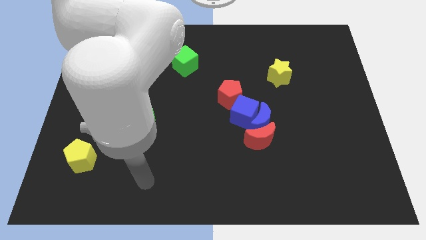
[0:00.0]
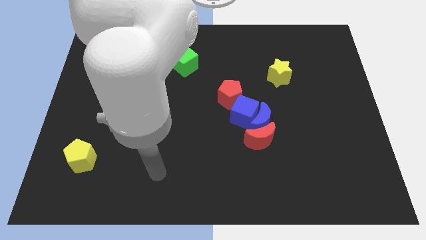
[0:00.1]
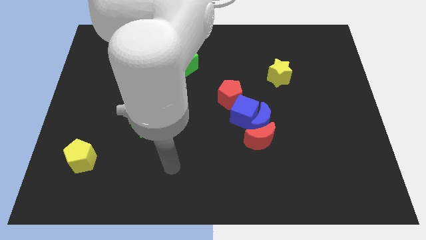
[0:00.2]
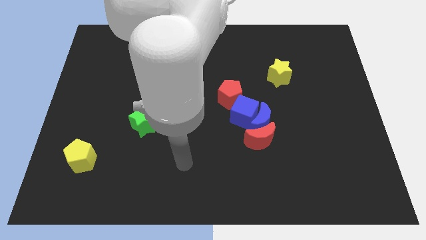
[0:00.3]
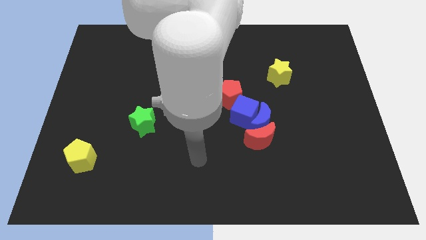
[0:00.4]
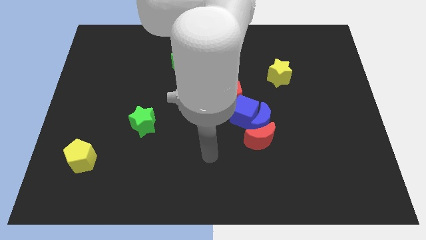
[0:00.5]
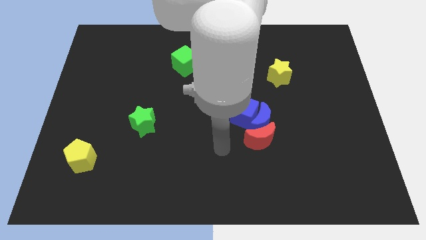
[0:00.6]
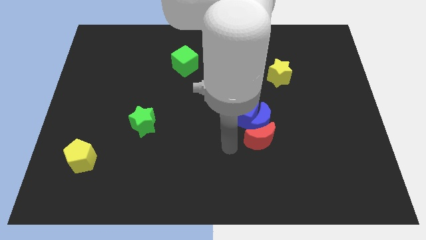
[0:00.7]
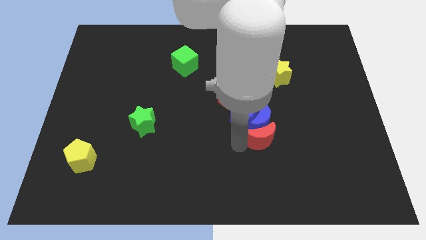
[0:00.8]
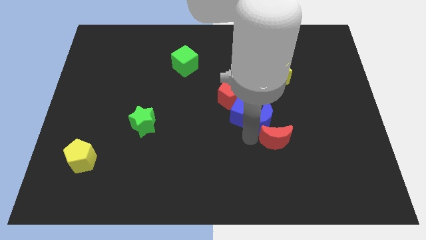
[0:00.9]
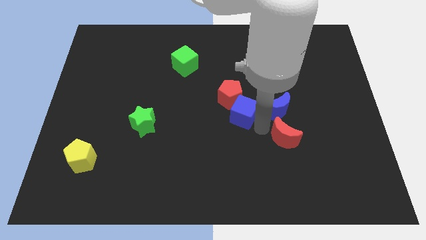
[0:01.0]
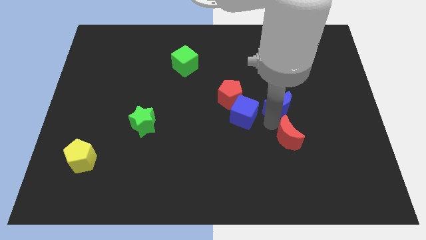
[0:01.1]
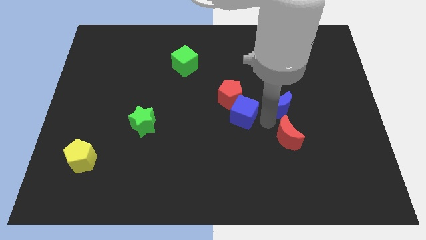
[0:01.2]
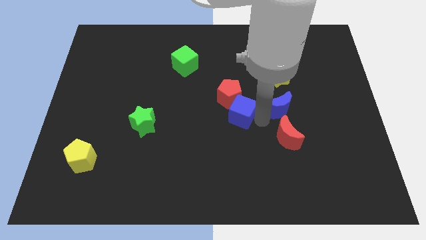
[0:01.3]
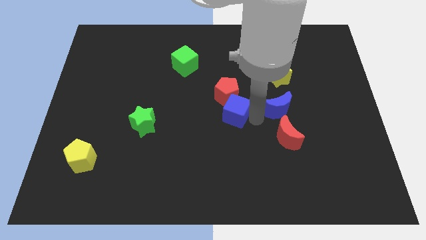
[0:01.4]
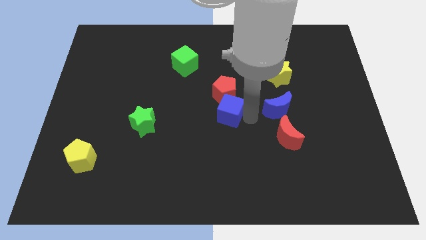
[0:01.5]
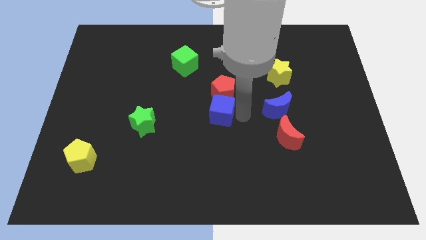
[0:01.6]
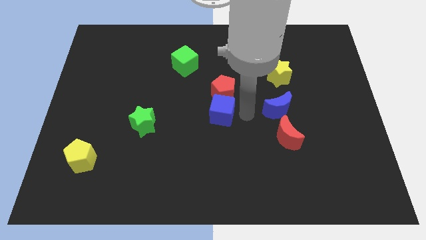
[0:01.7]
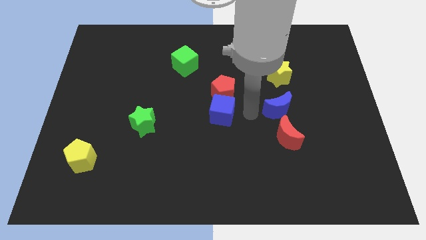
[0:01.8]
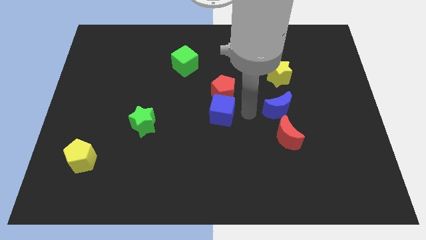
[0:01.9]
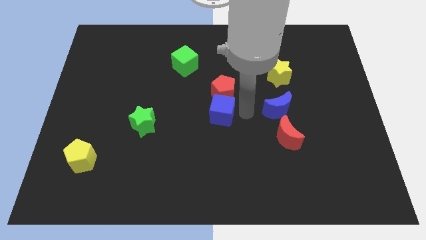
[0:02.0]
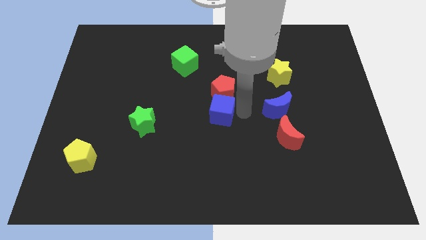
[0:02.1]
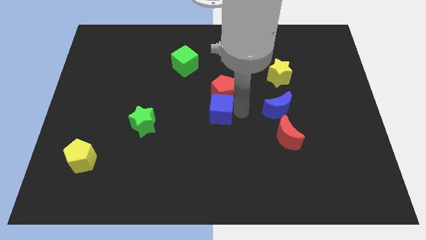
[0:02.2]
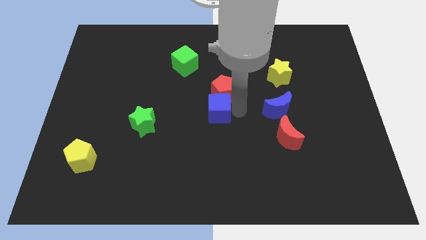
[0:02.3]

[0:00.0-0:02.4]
move the blue cube away from the blue moon, red pentagon, and red moon

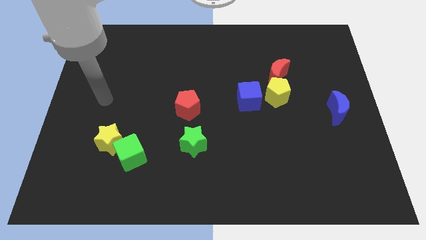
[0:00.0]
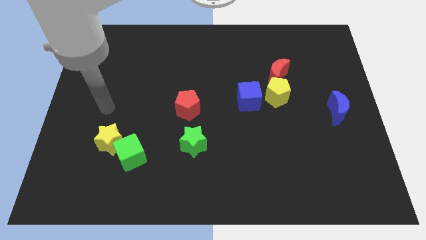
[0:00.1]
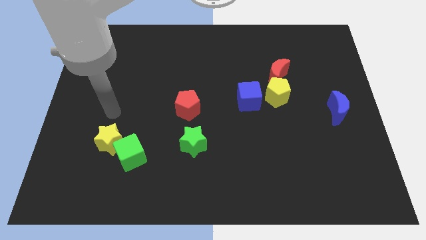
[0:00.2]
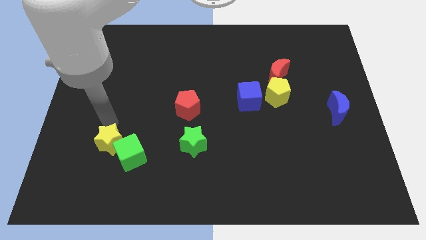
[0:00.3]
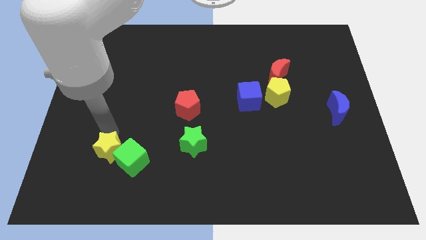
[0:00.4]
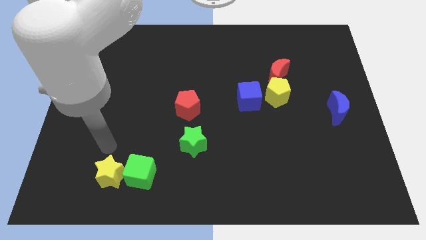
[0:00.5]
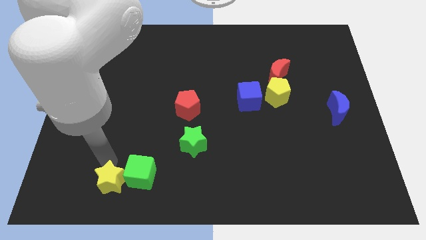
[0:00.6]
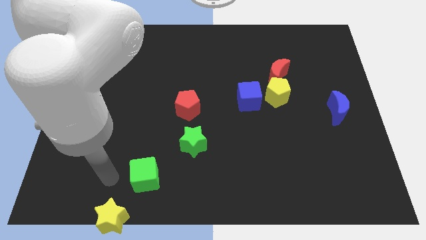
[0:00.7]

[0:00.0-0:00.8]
move the green cube away from the yellow star

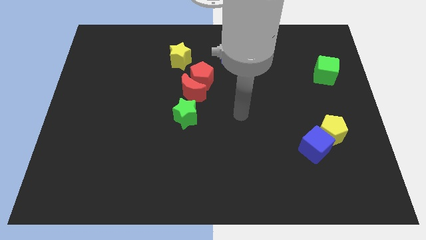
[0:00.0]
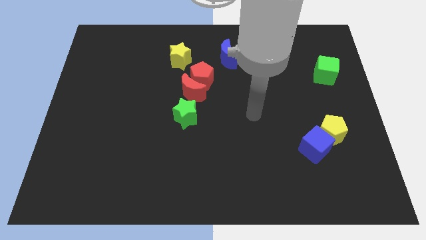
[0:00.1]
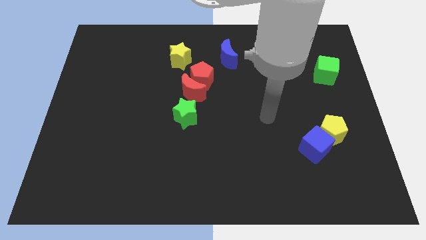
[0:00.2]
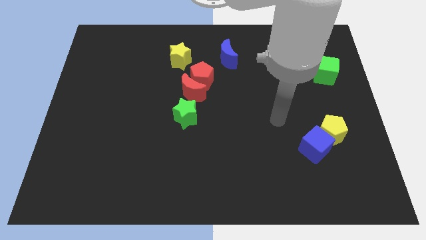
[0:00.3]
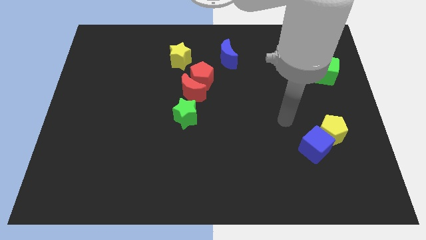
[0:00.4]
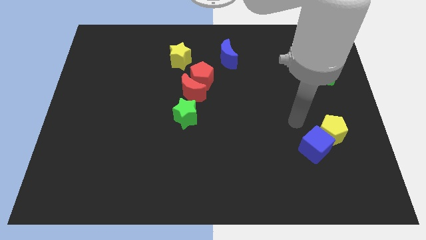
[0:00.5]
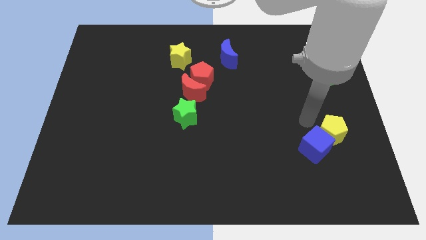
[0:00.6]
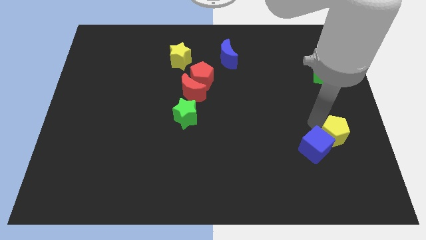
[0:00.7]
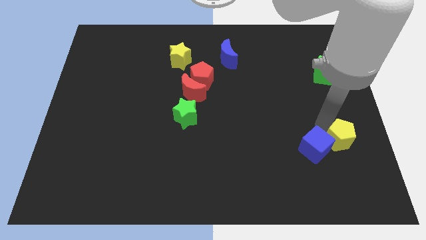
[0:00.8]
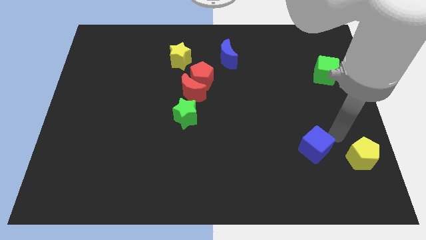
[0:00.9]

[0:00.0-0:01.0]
pull the blue cube apart from the yellow pentagon

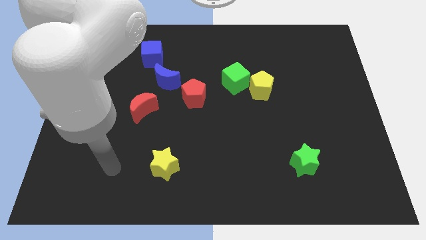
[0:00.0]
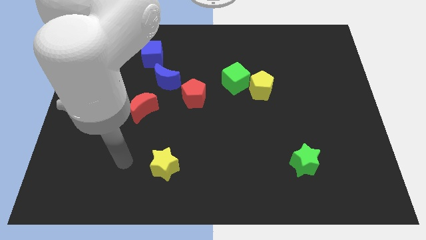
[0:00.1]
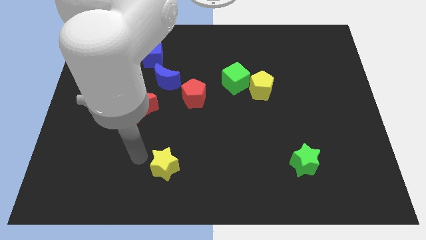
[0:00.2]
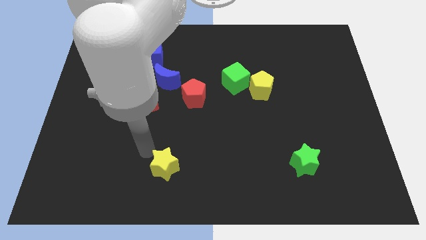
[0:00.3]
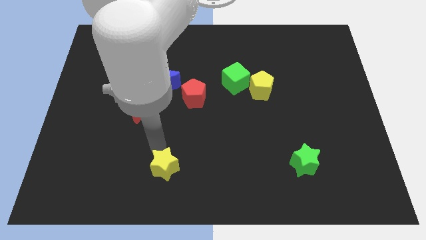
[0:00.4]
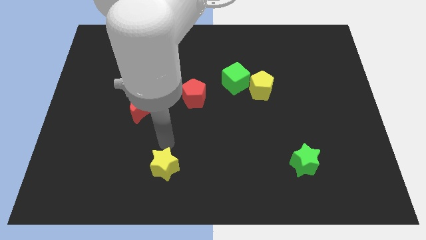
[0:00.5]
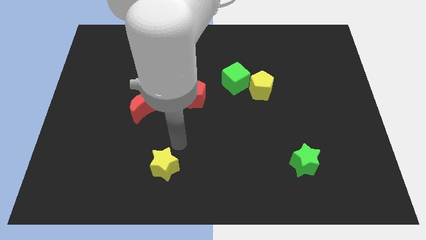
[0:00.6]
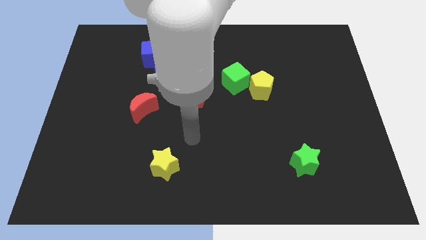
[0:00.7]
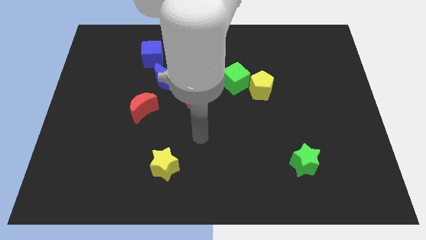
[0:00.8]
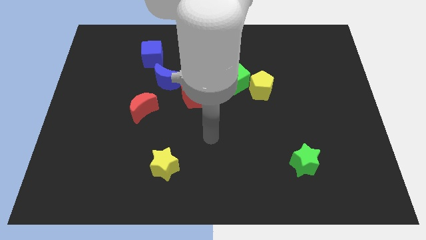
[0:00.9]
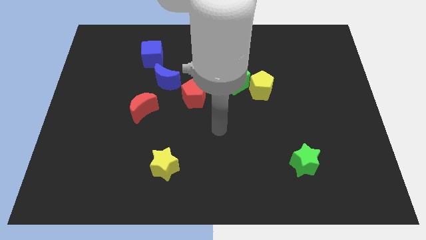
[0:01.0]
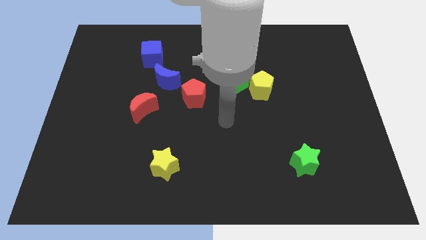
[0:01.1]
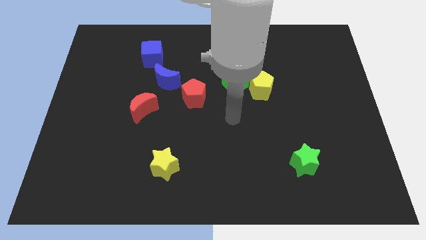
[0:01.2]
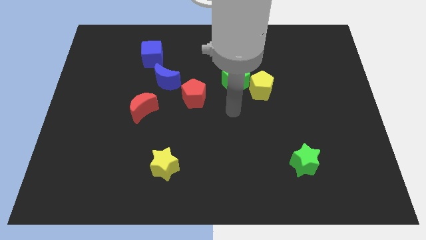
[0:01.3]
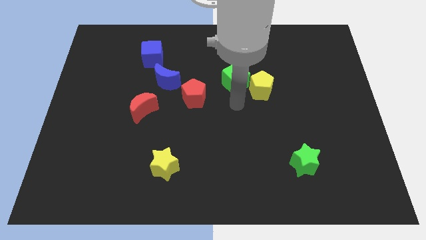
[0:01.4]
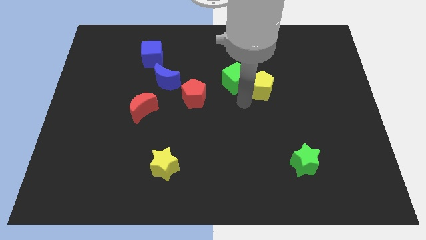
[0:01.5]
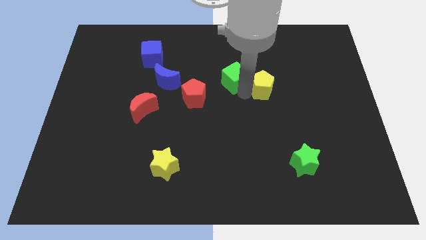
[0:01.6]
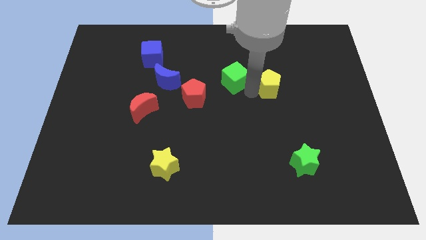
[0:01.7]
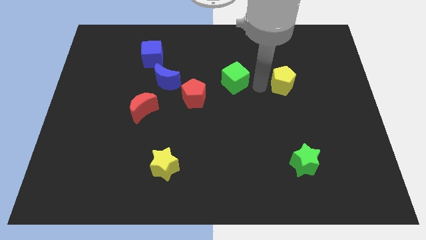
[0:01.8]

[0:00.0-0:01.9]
move the green cube away from the yellow pentagon

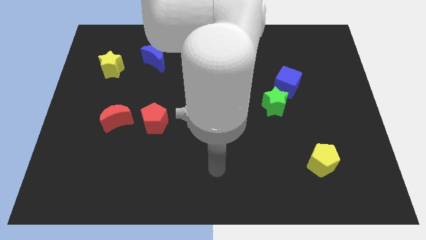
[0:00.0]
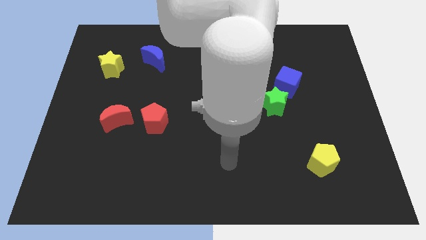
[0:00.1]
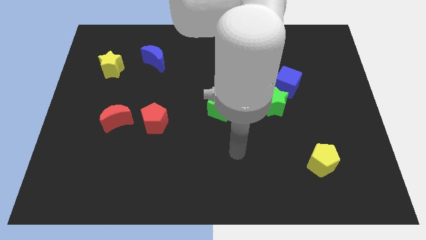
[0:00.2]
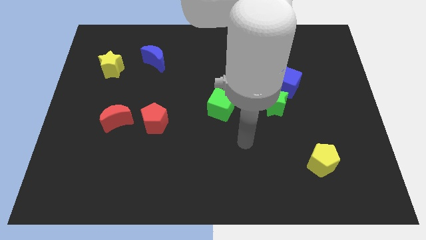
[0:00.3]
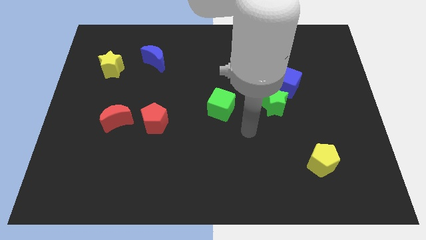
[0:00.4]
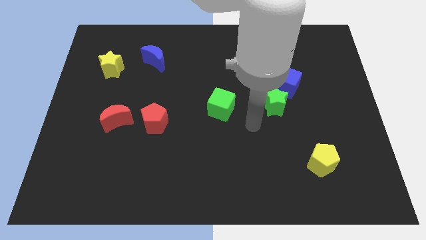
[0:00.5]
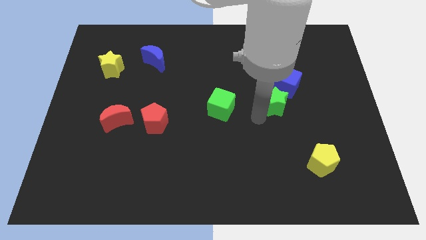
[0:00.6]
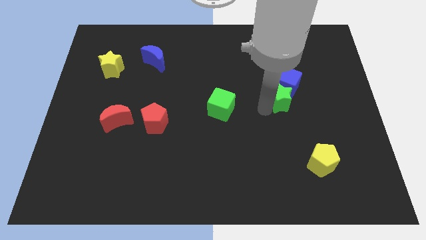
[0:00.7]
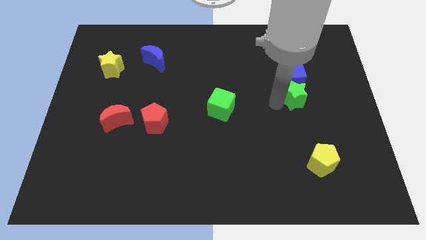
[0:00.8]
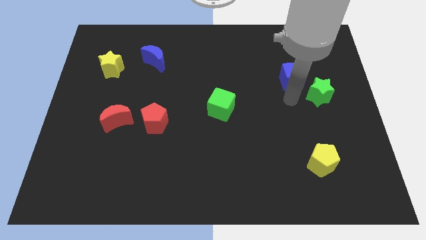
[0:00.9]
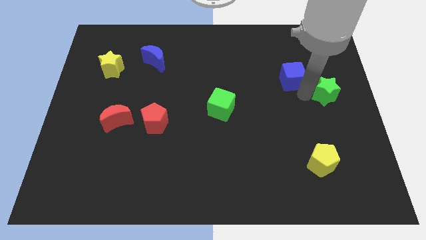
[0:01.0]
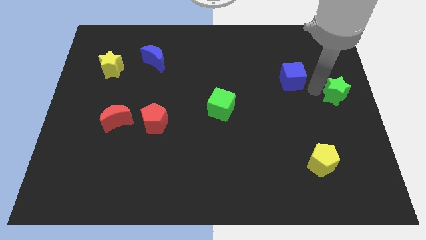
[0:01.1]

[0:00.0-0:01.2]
move the blue cube away from the green star

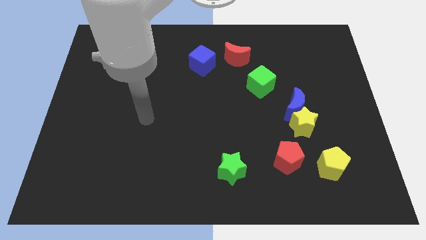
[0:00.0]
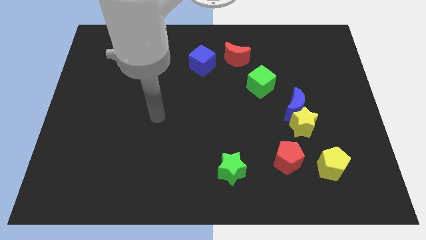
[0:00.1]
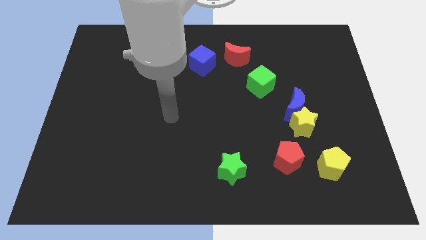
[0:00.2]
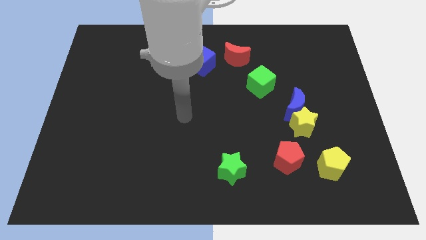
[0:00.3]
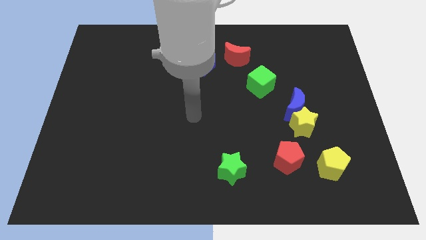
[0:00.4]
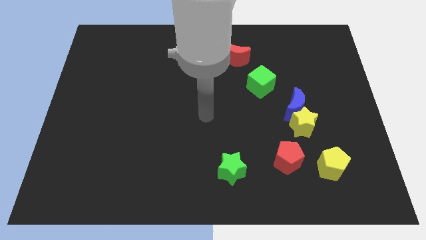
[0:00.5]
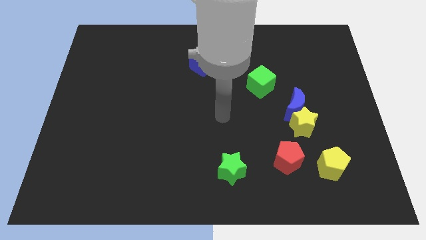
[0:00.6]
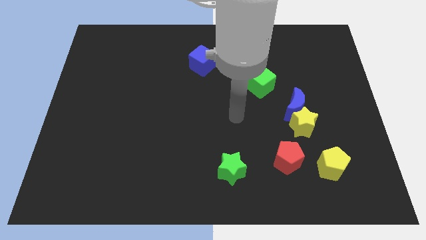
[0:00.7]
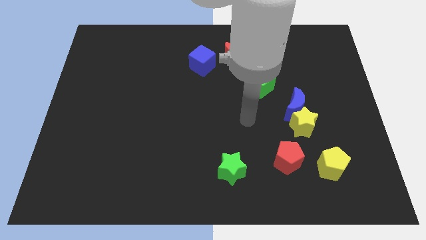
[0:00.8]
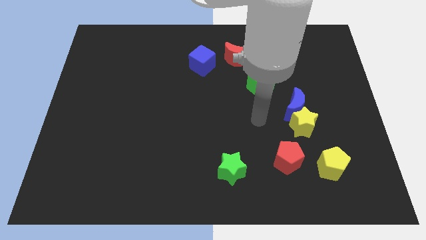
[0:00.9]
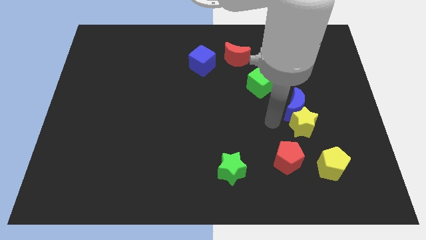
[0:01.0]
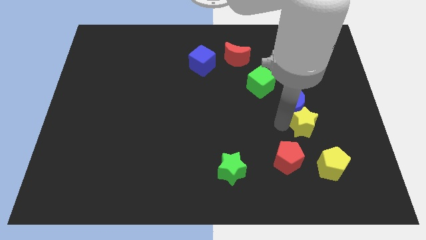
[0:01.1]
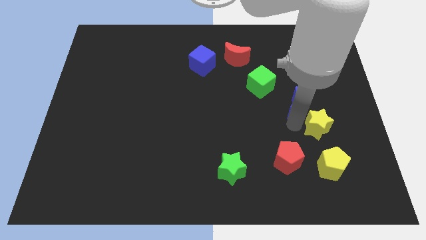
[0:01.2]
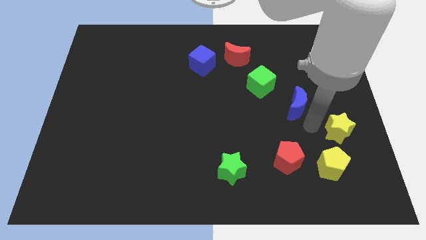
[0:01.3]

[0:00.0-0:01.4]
separate the blue moon from the yellow star

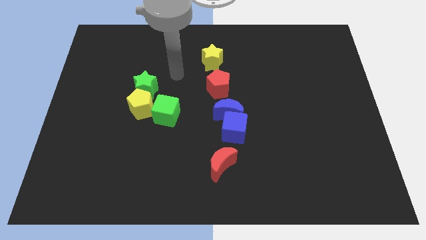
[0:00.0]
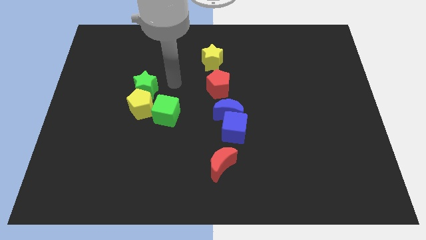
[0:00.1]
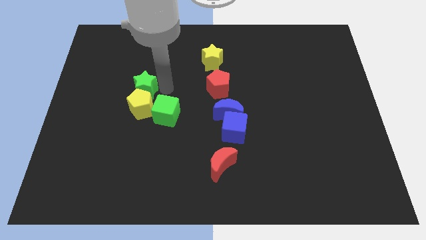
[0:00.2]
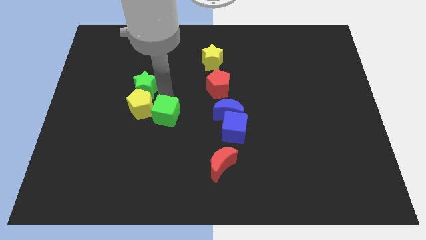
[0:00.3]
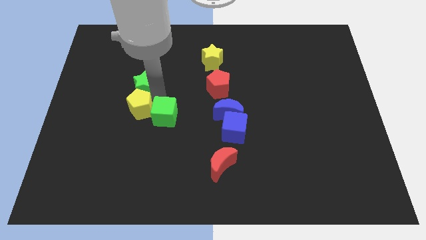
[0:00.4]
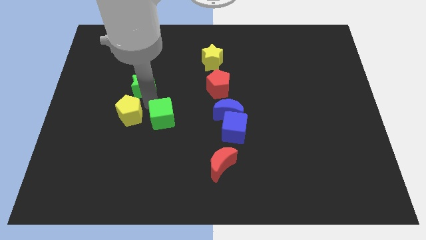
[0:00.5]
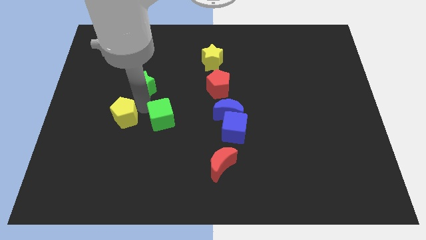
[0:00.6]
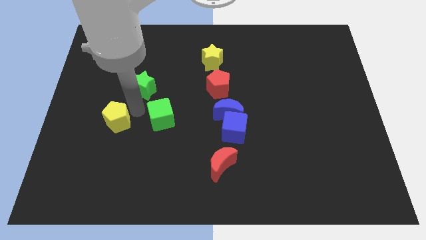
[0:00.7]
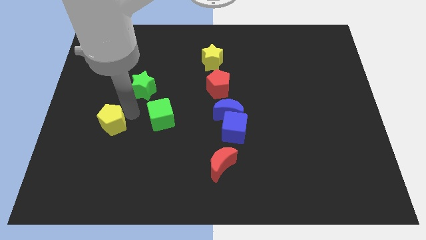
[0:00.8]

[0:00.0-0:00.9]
pull the yellow pentagon apart from the green star and green cube
